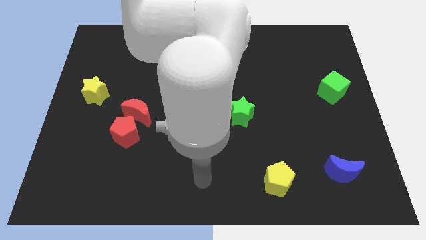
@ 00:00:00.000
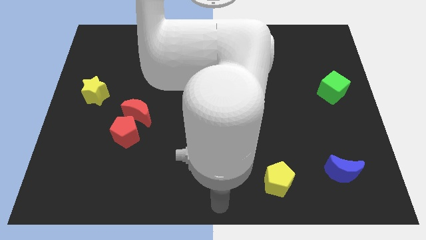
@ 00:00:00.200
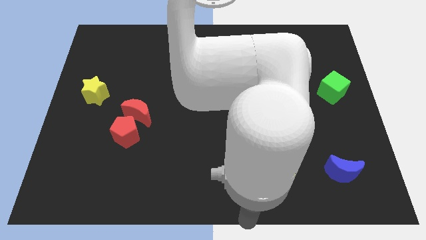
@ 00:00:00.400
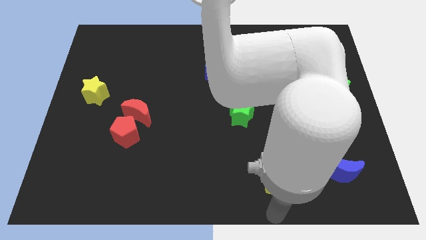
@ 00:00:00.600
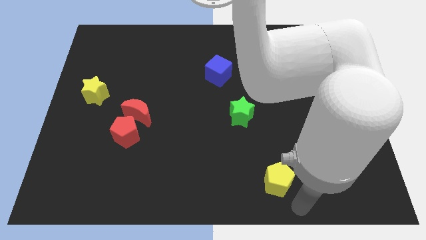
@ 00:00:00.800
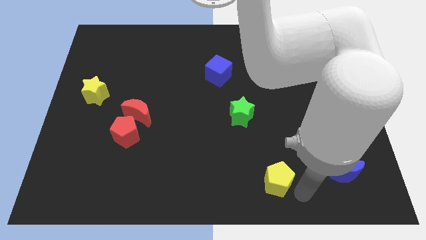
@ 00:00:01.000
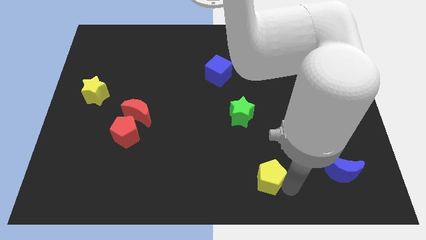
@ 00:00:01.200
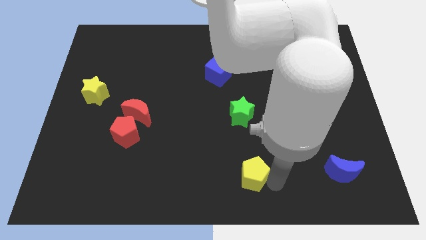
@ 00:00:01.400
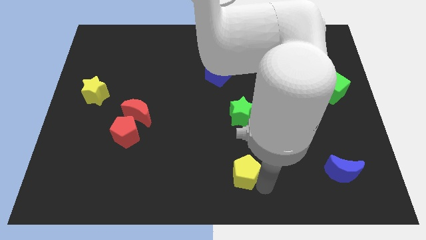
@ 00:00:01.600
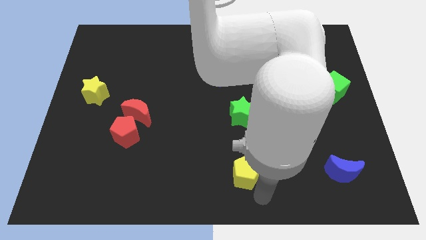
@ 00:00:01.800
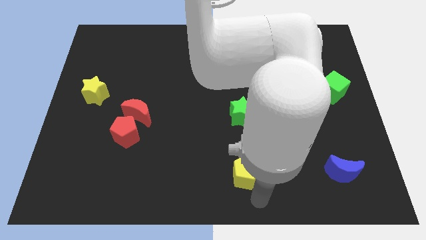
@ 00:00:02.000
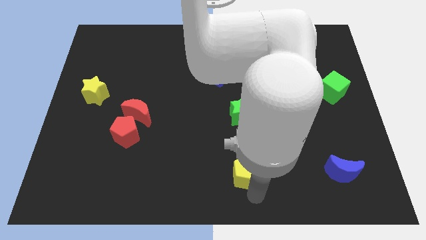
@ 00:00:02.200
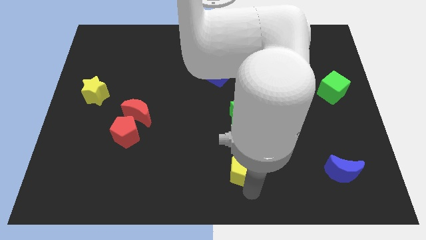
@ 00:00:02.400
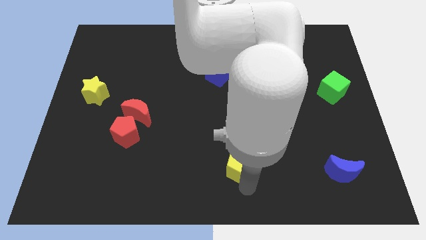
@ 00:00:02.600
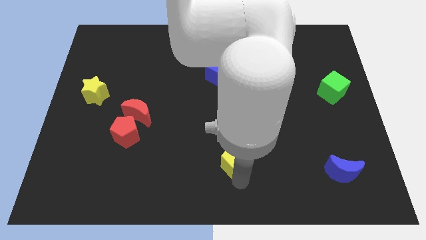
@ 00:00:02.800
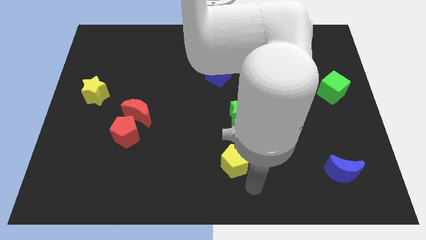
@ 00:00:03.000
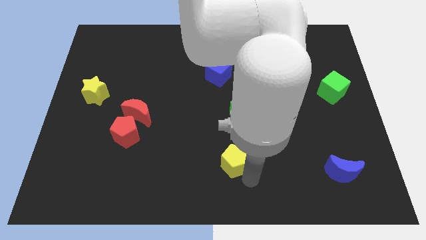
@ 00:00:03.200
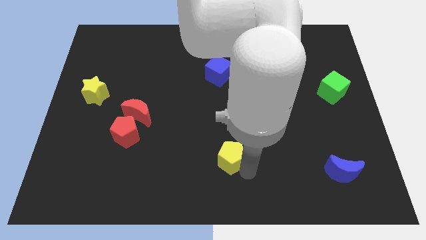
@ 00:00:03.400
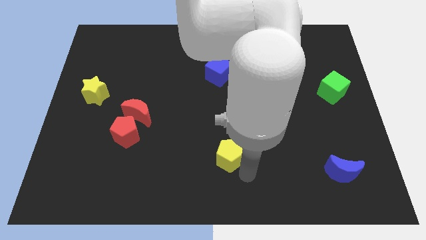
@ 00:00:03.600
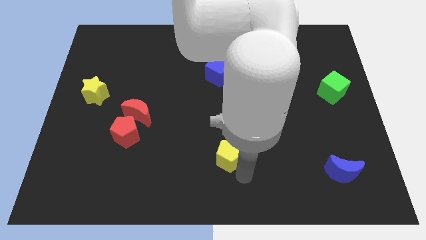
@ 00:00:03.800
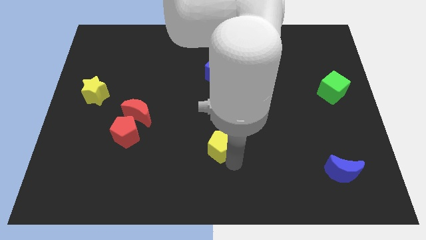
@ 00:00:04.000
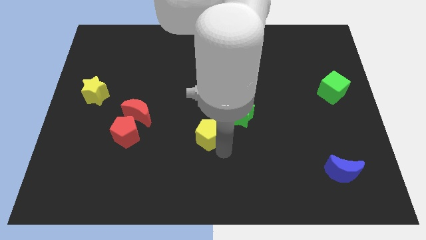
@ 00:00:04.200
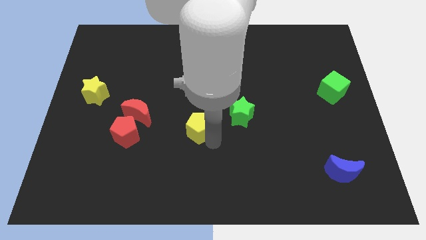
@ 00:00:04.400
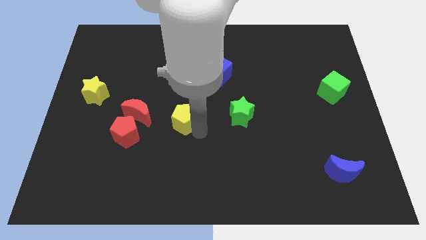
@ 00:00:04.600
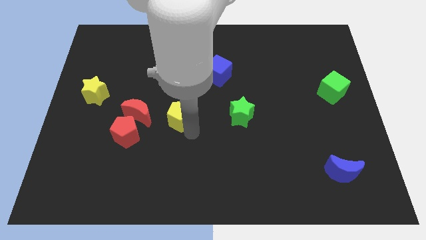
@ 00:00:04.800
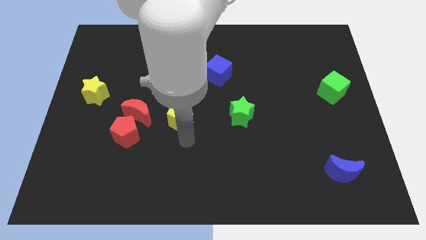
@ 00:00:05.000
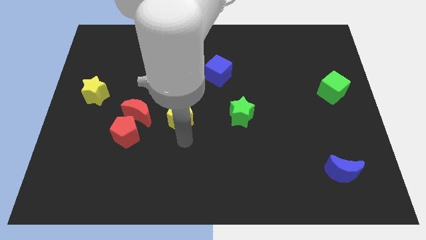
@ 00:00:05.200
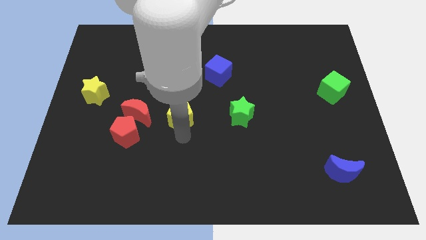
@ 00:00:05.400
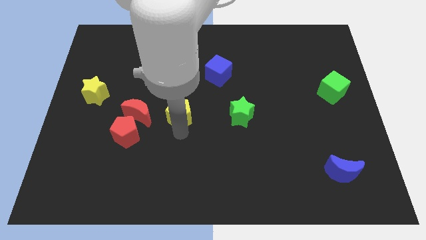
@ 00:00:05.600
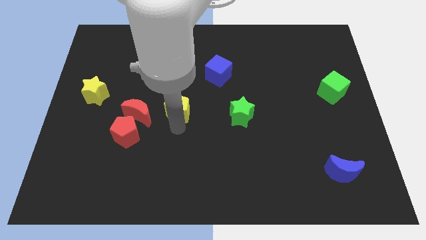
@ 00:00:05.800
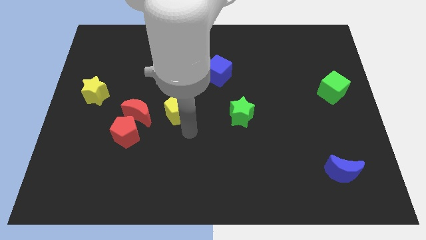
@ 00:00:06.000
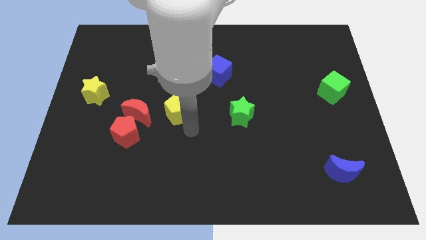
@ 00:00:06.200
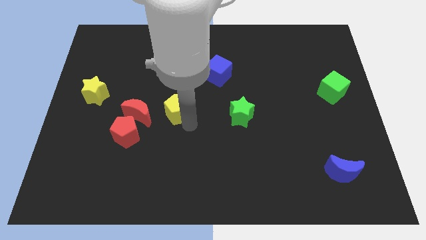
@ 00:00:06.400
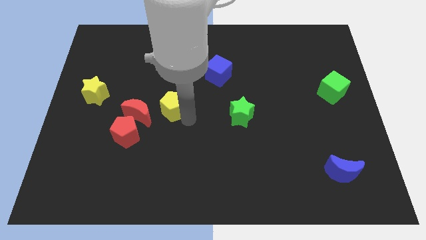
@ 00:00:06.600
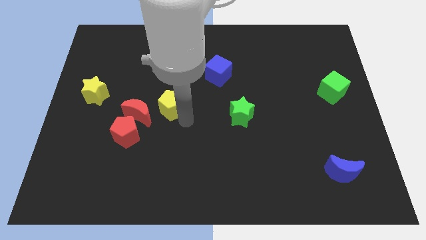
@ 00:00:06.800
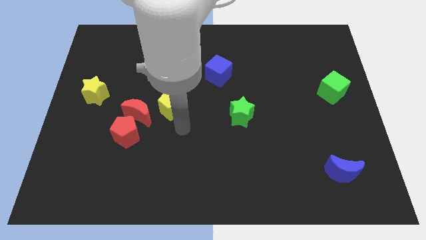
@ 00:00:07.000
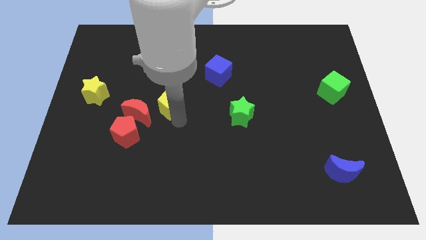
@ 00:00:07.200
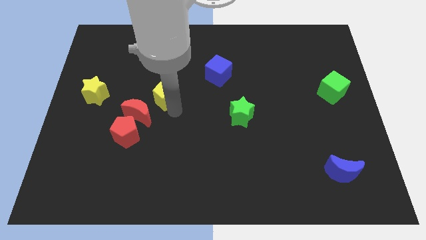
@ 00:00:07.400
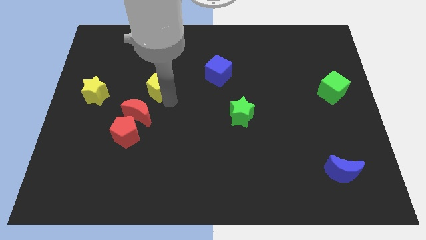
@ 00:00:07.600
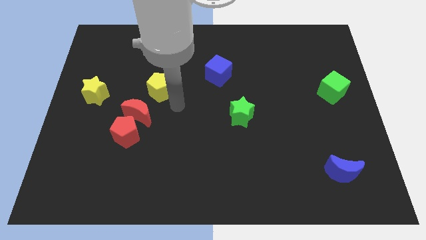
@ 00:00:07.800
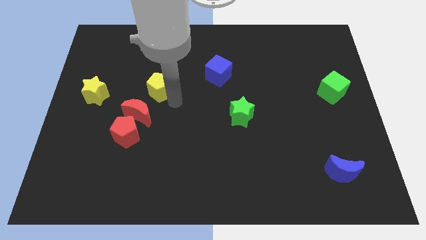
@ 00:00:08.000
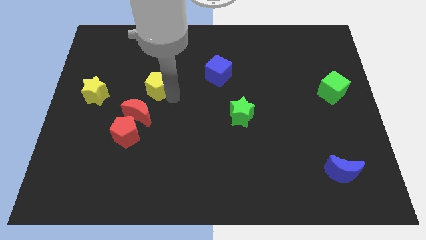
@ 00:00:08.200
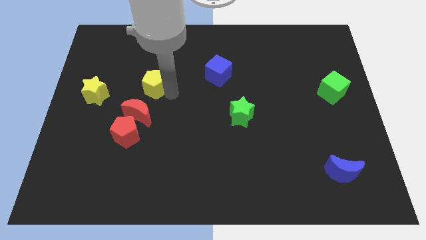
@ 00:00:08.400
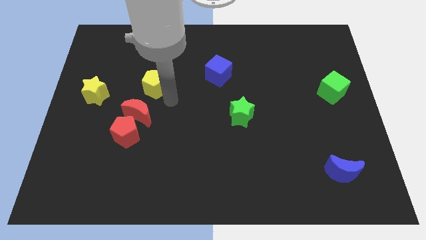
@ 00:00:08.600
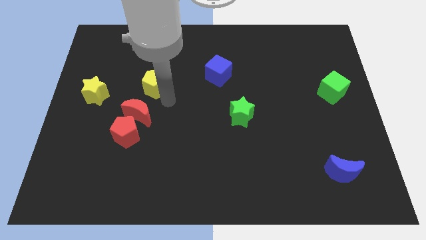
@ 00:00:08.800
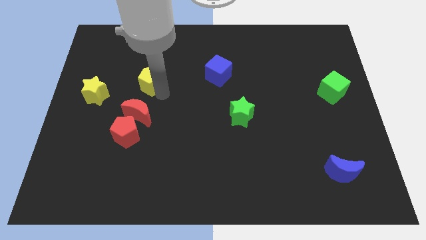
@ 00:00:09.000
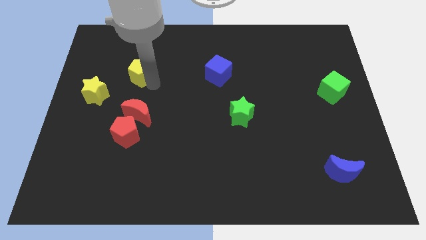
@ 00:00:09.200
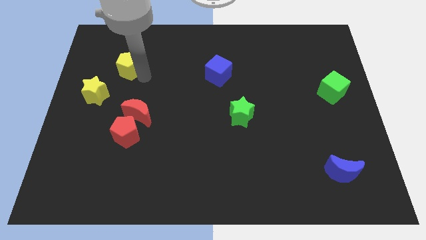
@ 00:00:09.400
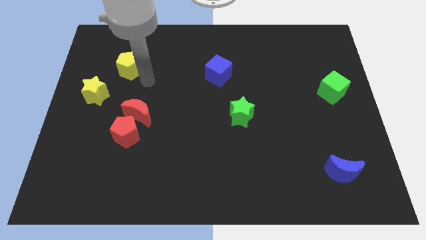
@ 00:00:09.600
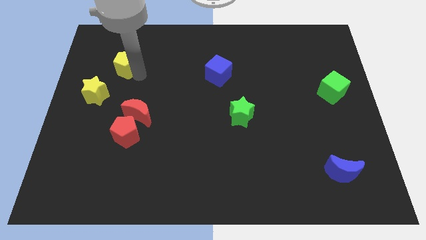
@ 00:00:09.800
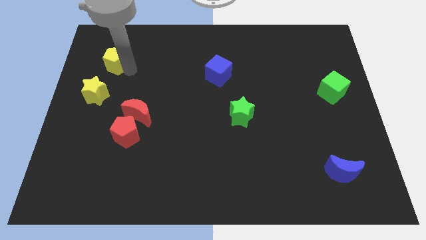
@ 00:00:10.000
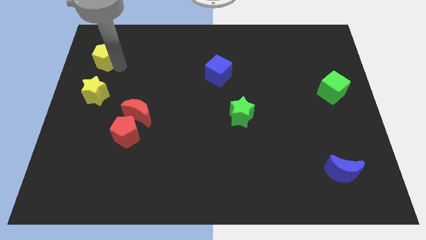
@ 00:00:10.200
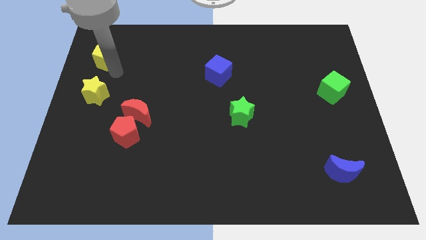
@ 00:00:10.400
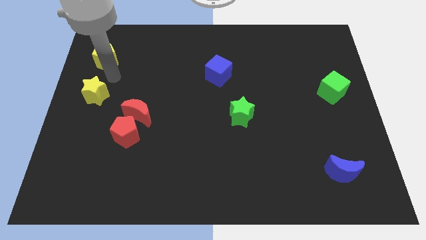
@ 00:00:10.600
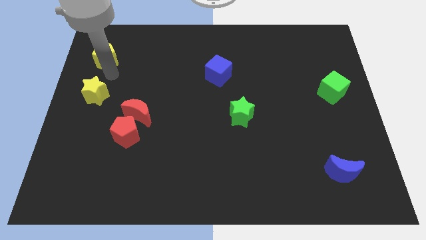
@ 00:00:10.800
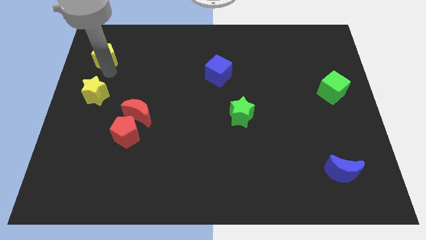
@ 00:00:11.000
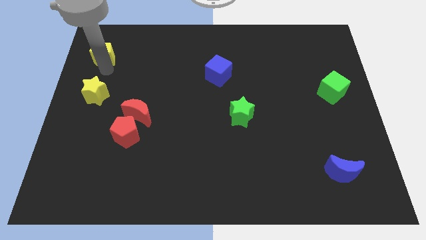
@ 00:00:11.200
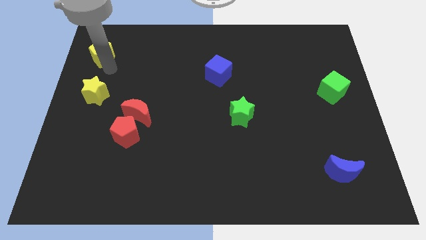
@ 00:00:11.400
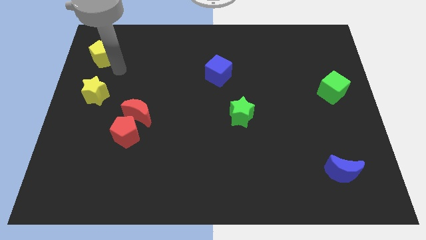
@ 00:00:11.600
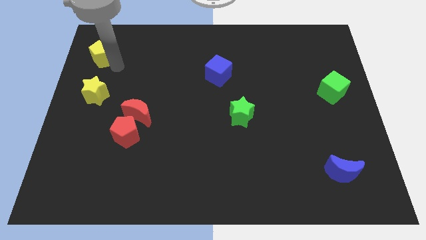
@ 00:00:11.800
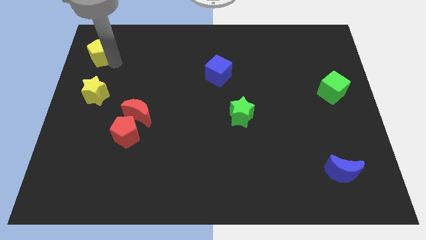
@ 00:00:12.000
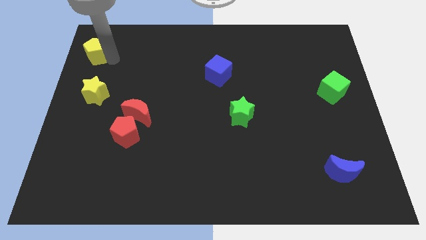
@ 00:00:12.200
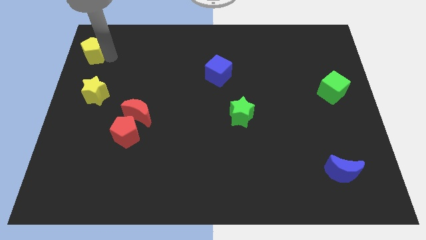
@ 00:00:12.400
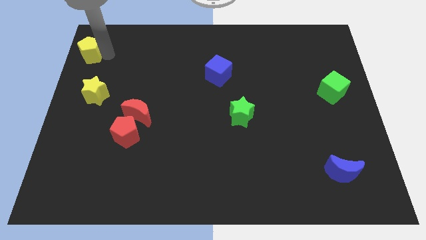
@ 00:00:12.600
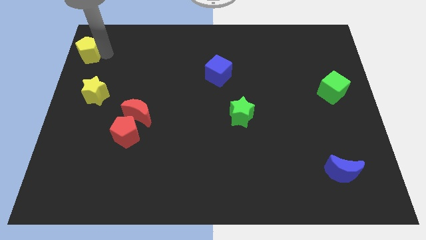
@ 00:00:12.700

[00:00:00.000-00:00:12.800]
move the yellow pentagon to the upper left corner
